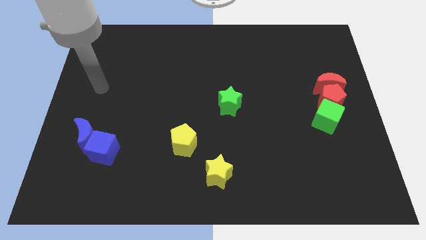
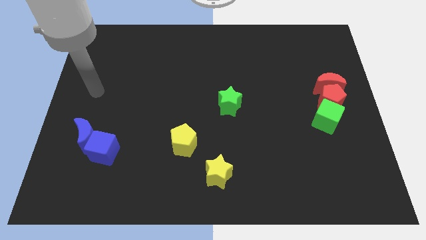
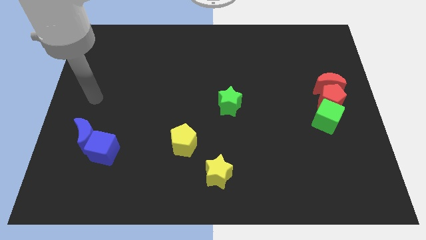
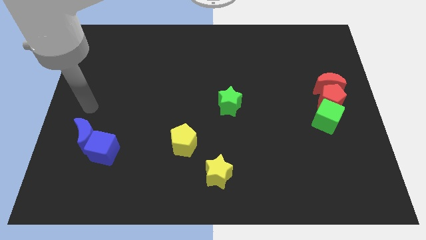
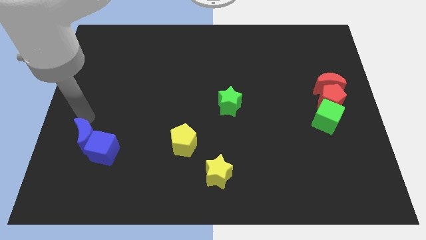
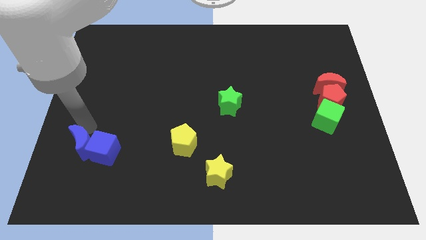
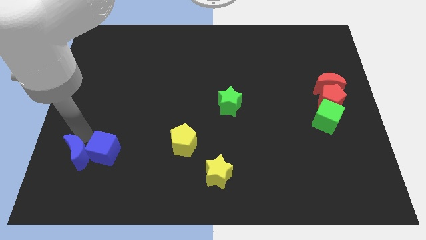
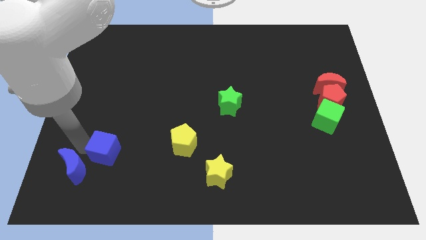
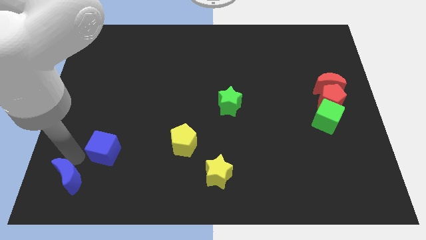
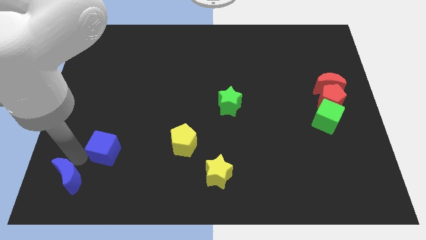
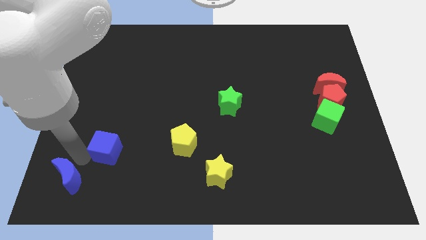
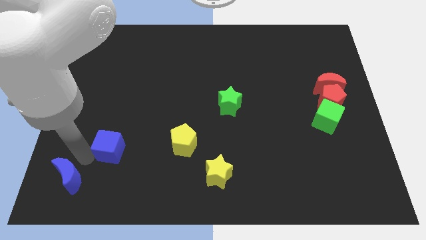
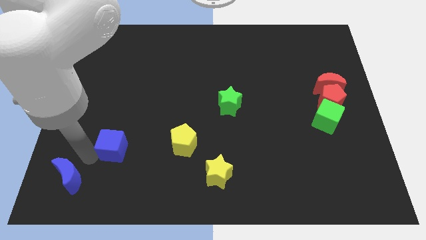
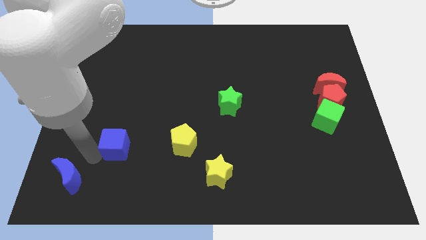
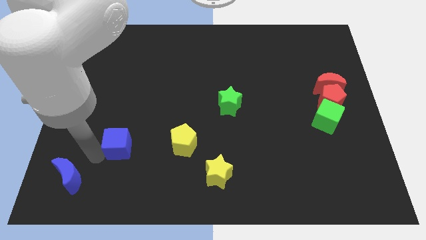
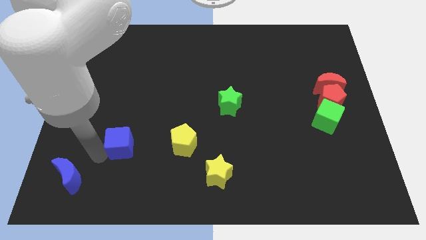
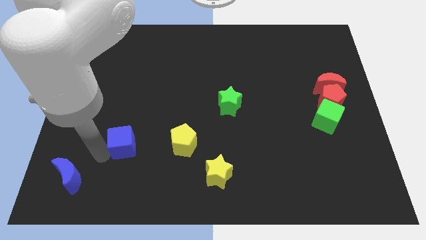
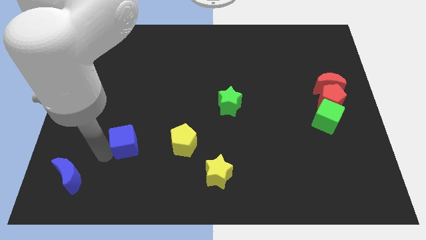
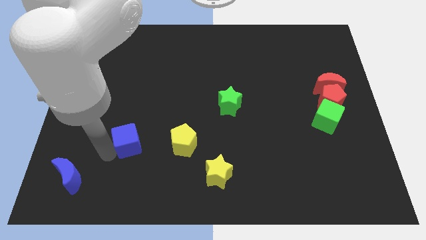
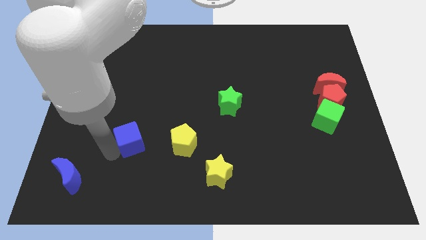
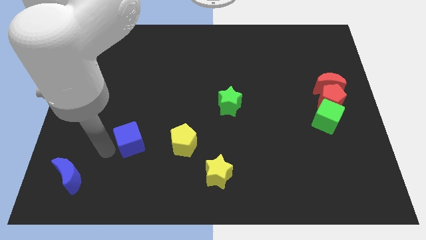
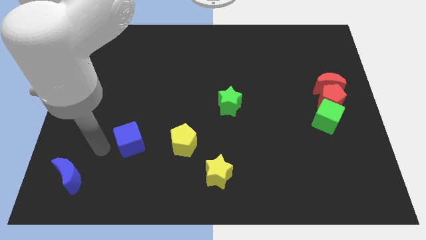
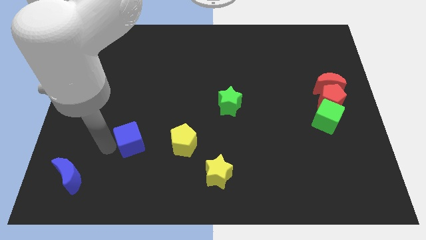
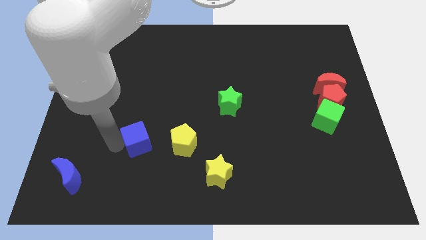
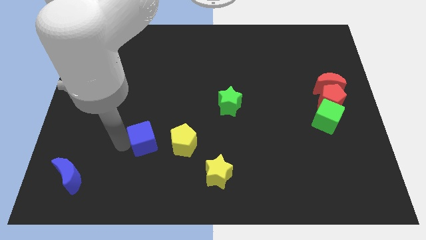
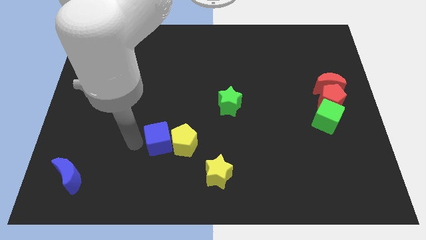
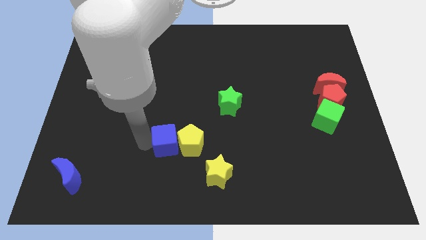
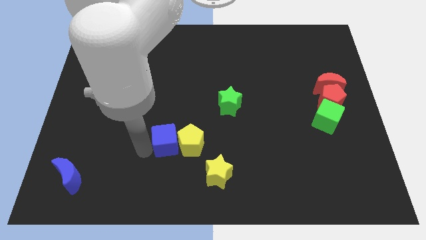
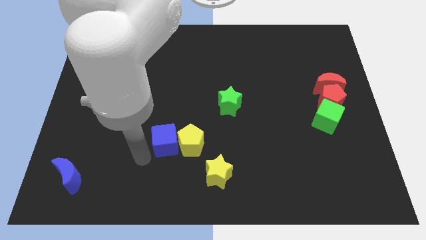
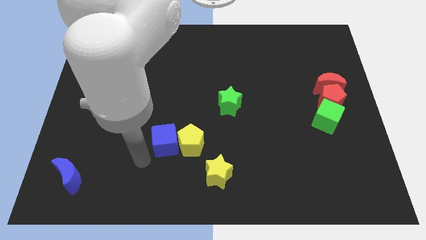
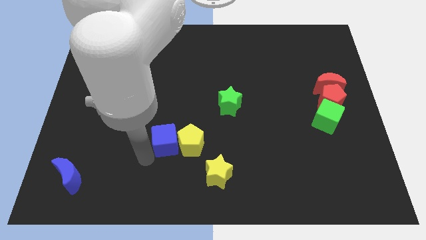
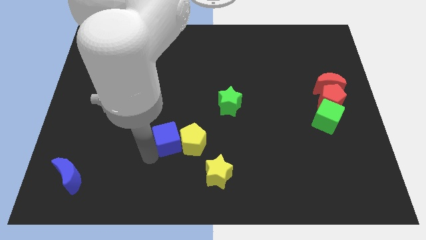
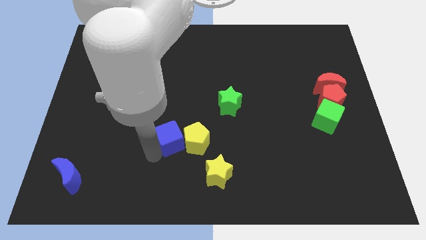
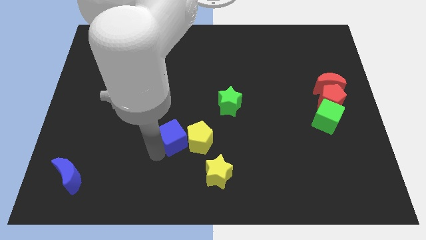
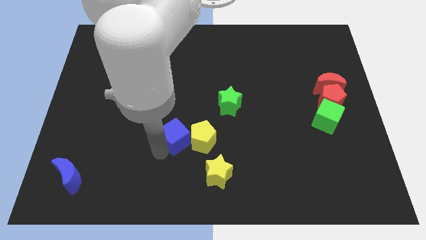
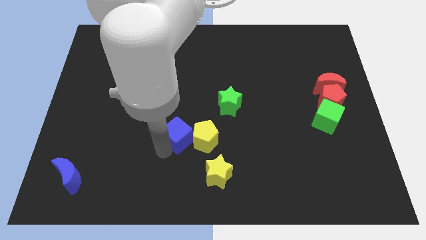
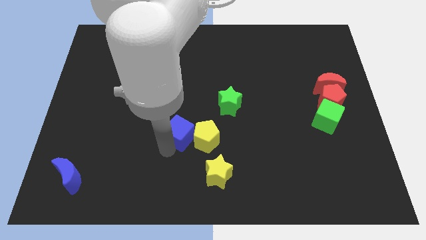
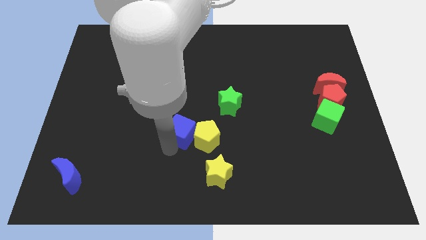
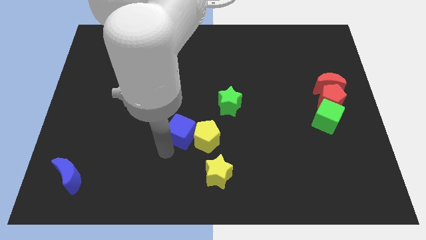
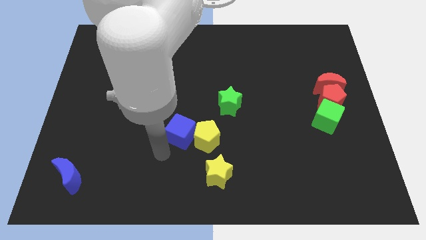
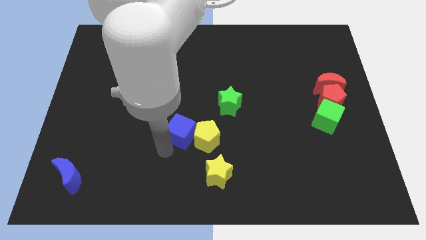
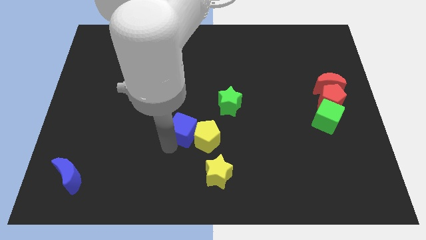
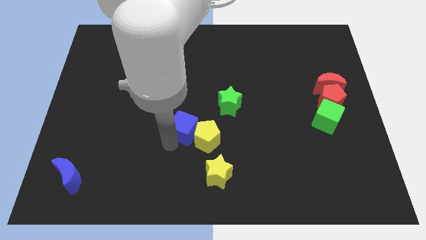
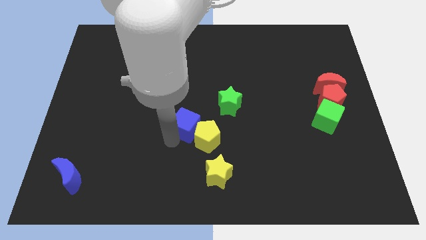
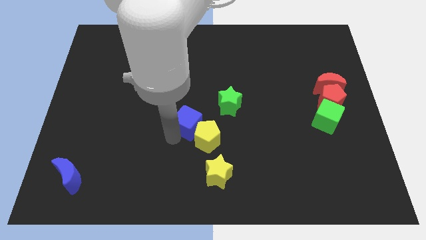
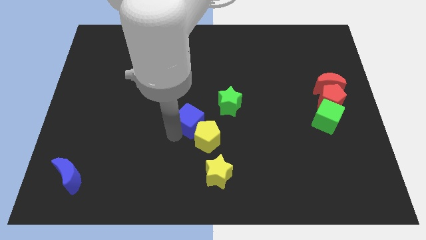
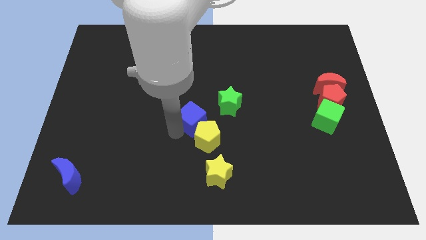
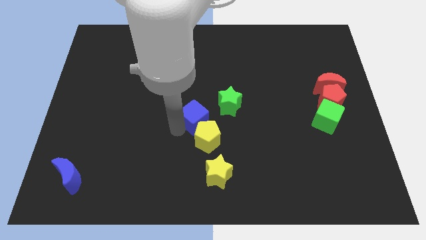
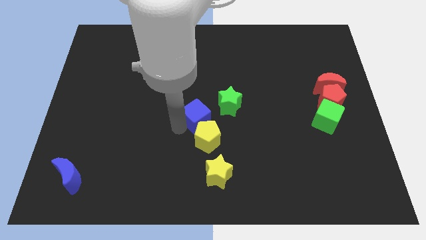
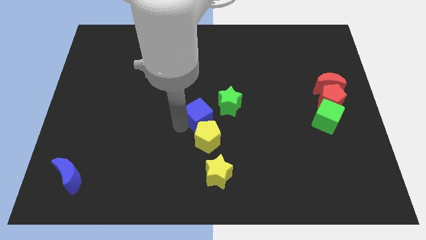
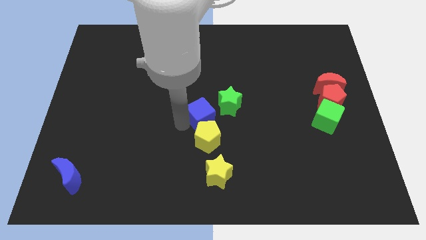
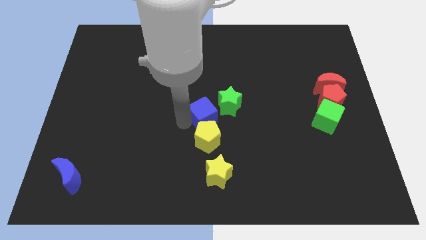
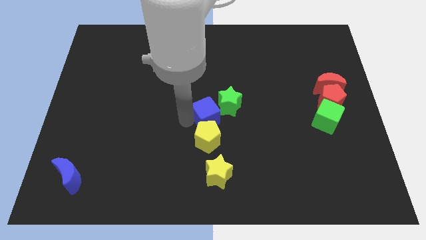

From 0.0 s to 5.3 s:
push the blue cube next to the green star

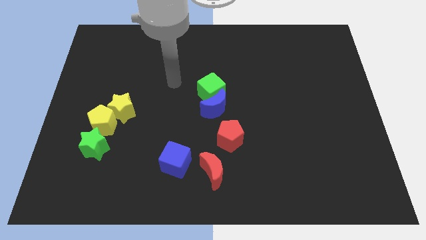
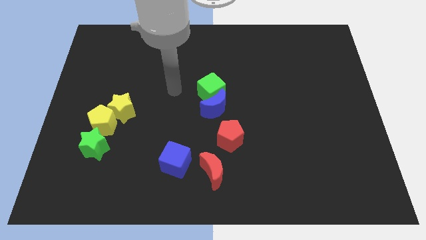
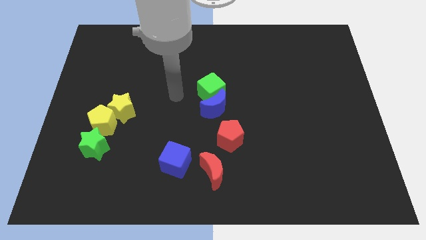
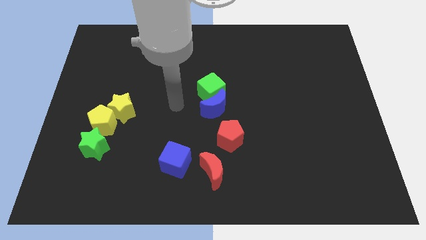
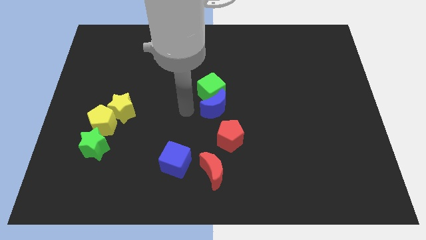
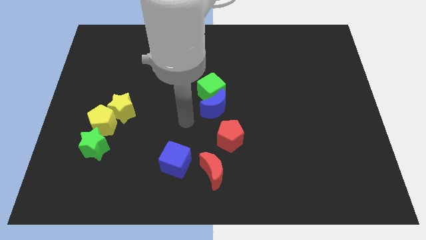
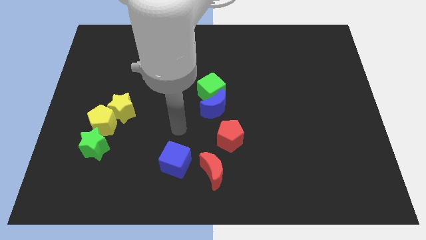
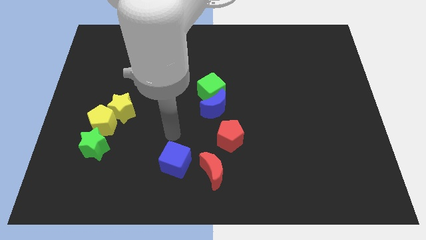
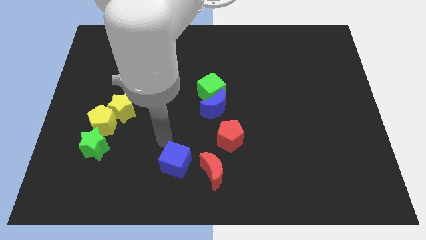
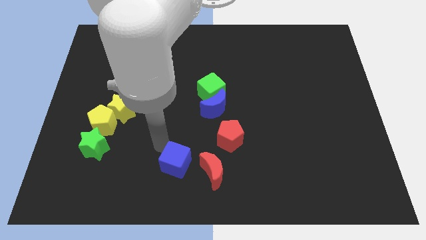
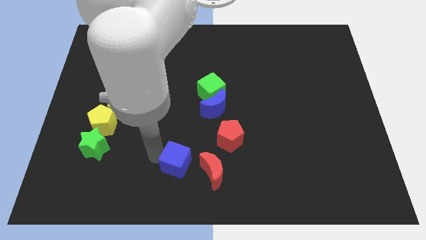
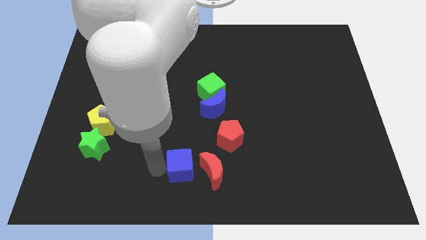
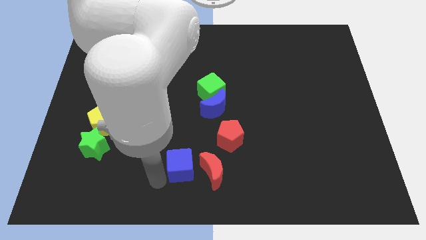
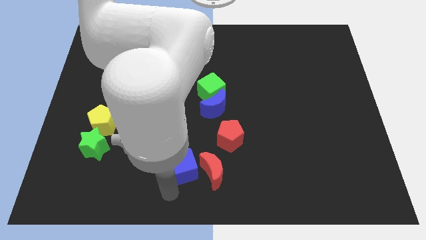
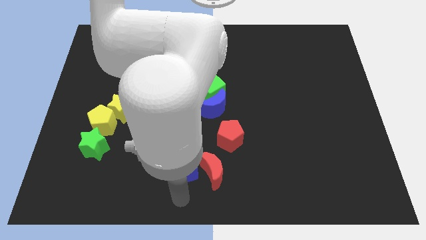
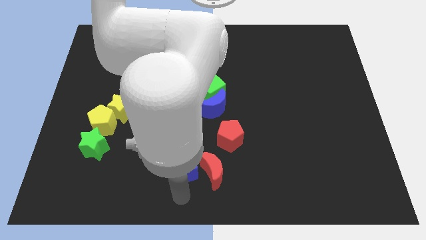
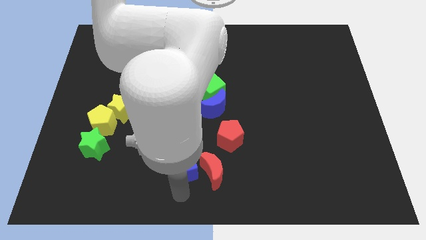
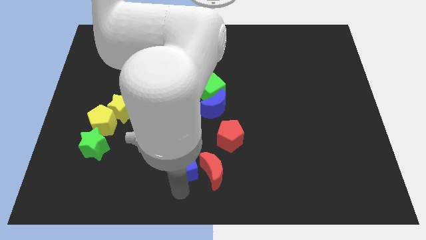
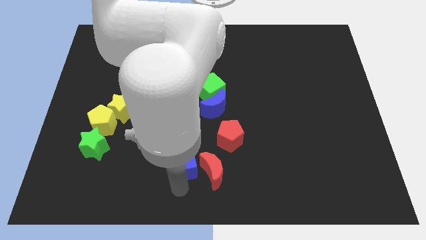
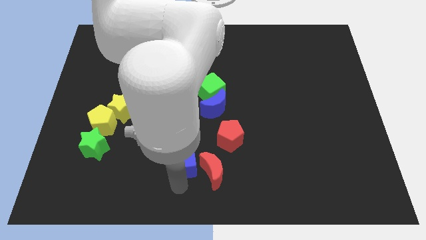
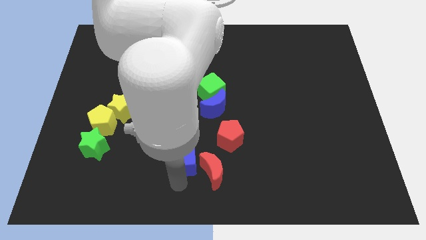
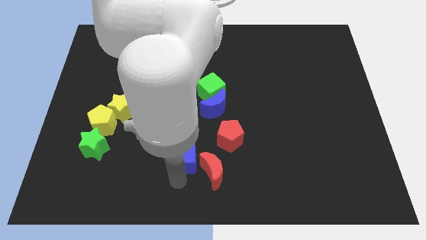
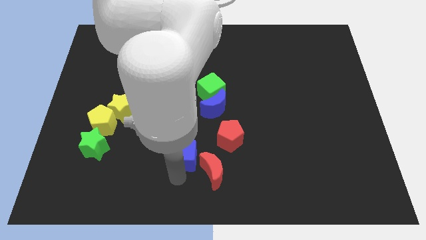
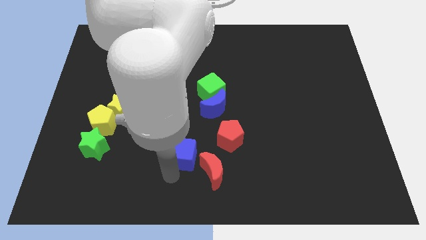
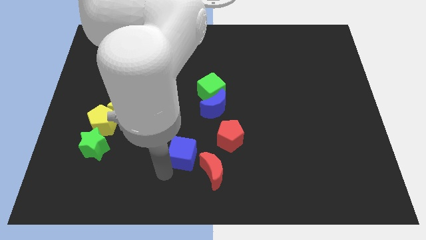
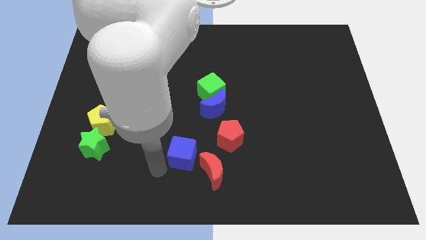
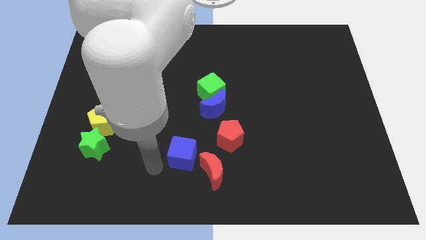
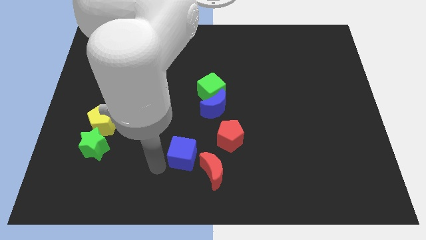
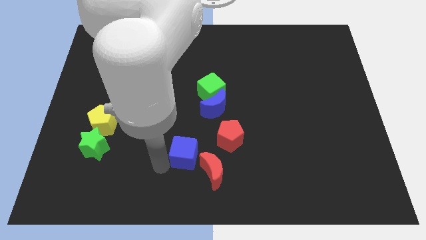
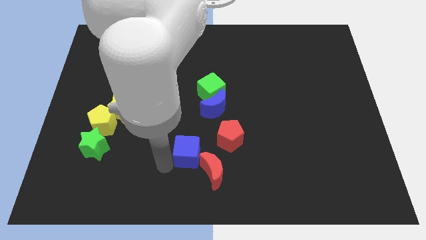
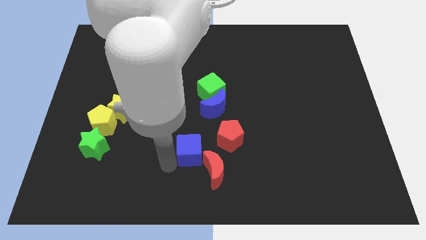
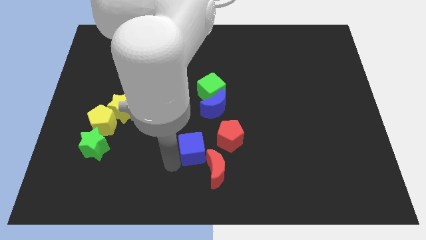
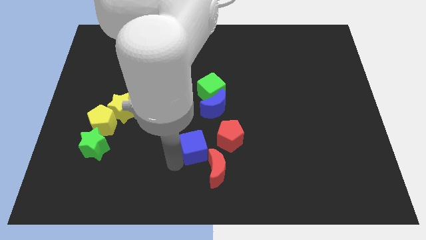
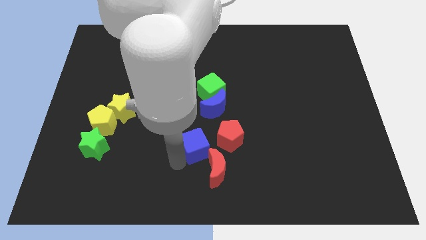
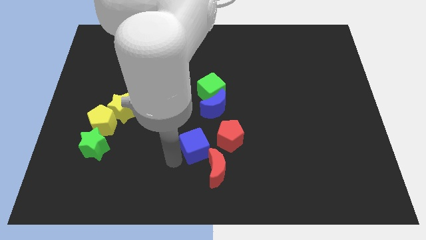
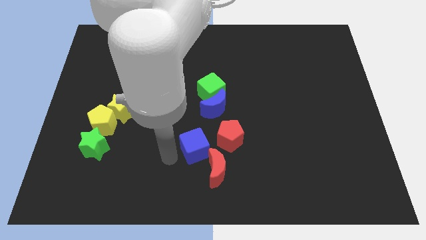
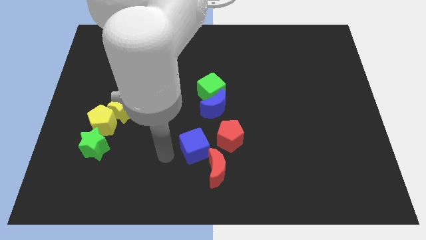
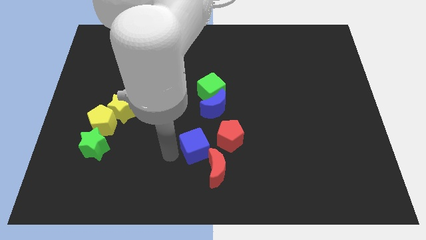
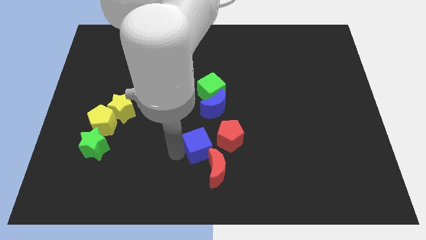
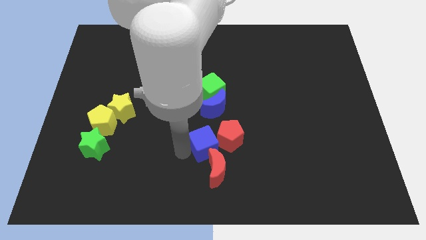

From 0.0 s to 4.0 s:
move the blue cube towards the red pentagon
